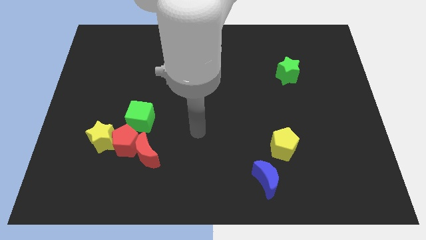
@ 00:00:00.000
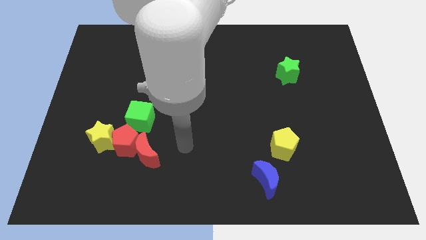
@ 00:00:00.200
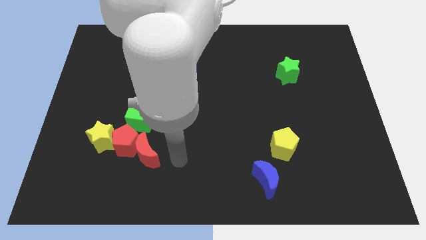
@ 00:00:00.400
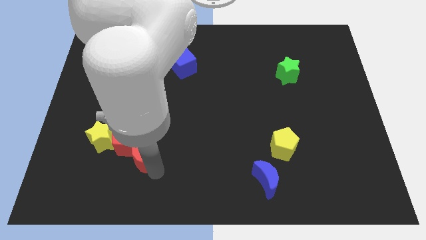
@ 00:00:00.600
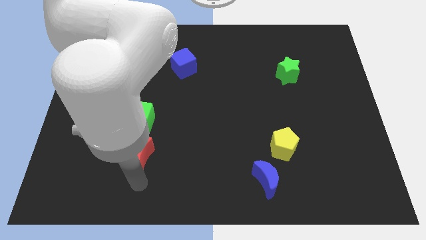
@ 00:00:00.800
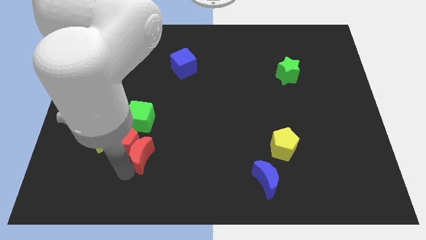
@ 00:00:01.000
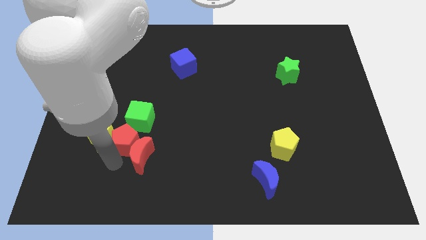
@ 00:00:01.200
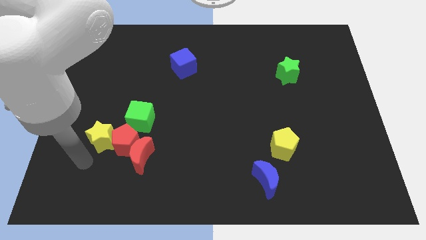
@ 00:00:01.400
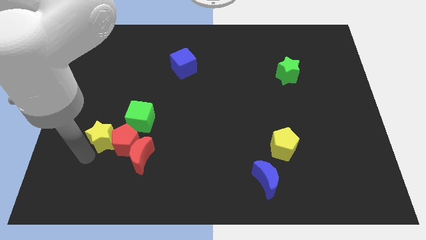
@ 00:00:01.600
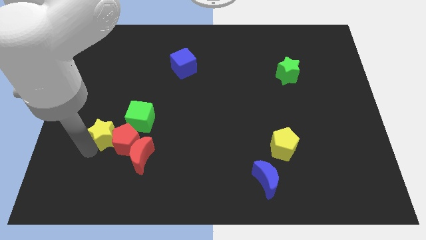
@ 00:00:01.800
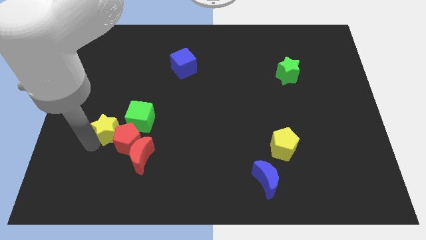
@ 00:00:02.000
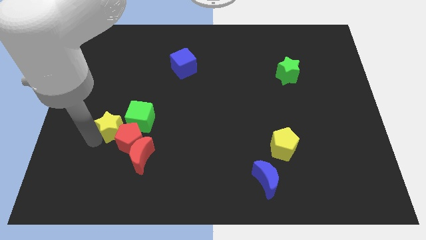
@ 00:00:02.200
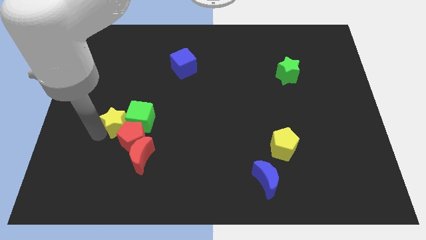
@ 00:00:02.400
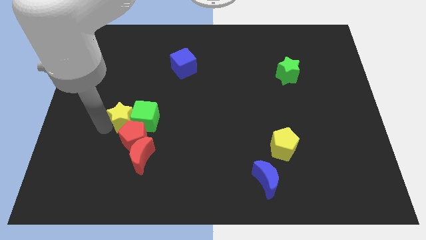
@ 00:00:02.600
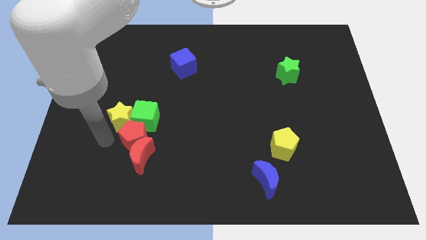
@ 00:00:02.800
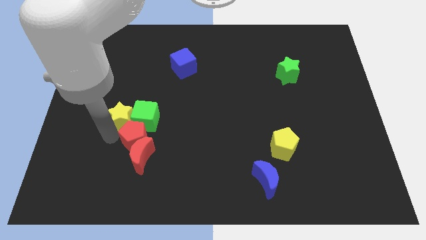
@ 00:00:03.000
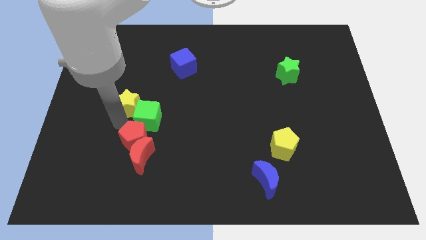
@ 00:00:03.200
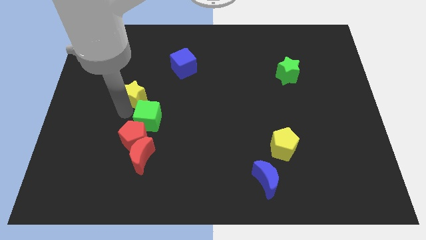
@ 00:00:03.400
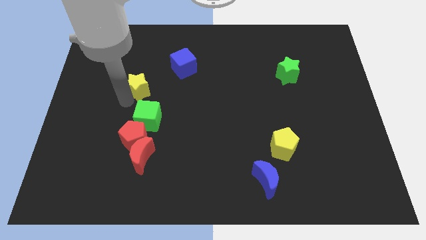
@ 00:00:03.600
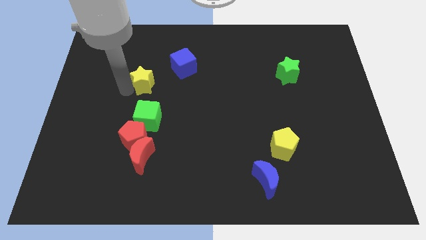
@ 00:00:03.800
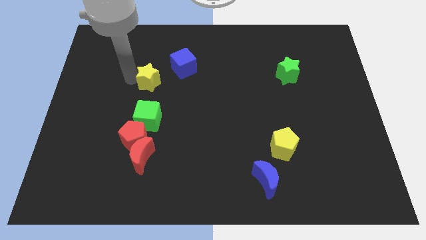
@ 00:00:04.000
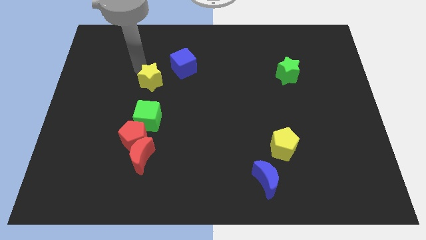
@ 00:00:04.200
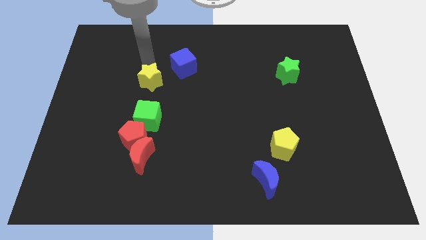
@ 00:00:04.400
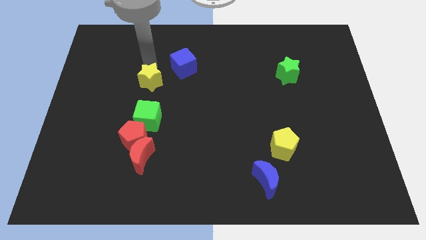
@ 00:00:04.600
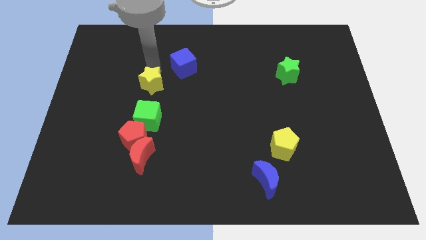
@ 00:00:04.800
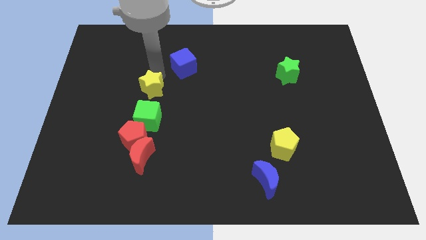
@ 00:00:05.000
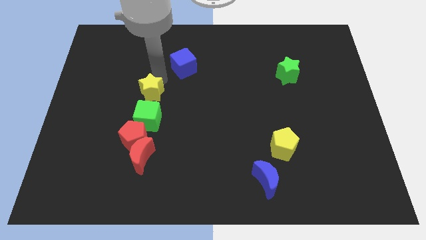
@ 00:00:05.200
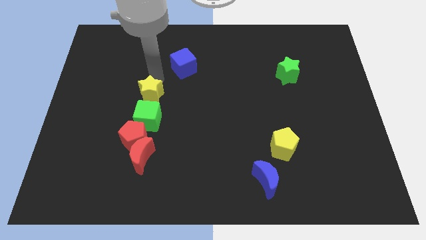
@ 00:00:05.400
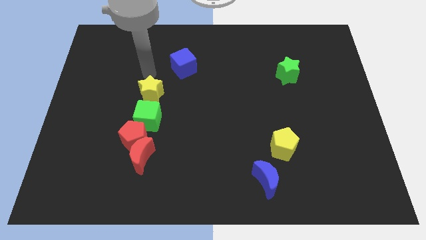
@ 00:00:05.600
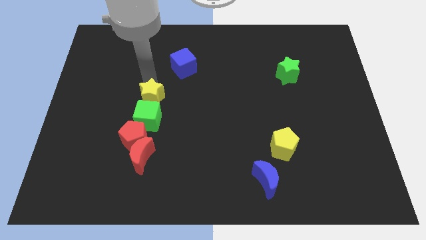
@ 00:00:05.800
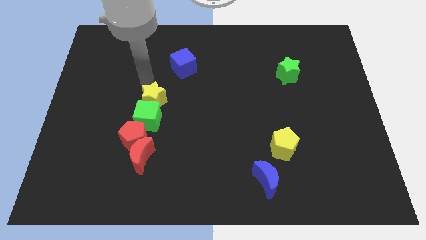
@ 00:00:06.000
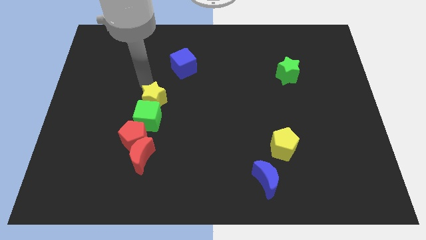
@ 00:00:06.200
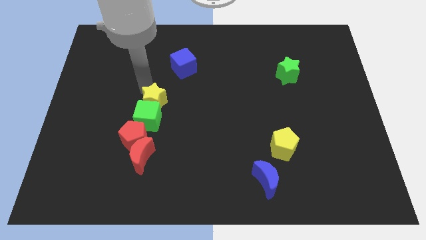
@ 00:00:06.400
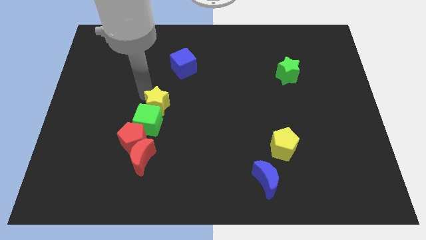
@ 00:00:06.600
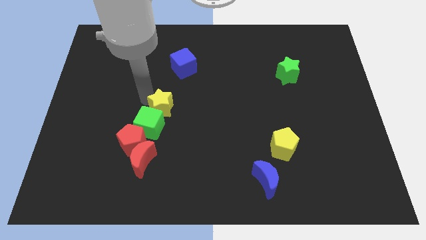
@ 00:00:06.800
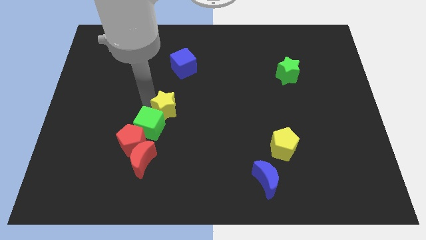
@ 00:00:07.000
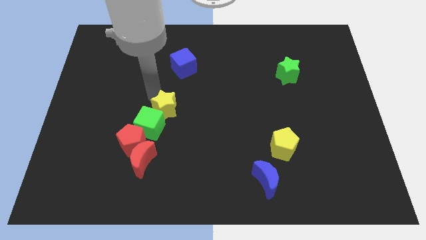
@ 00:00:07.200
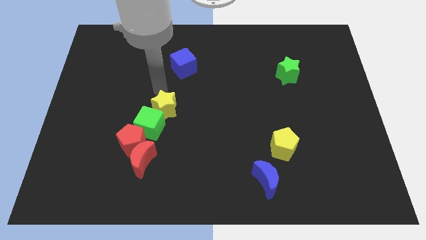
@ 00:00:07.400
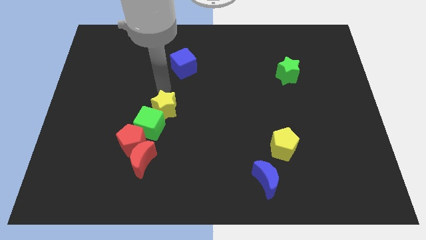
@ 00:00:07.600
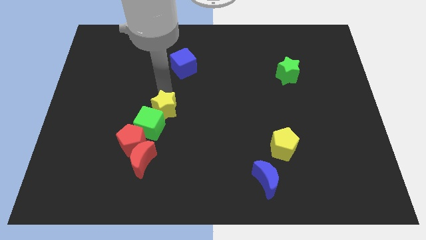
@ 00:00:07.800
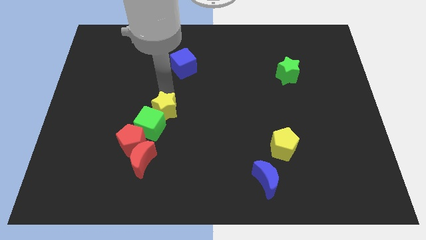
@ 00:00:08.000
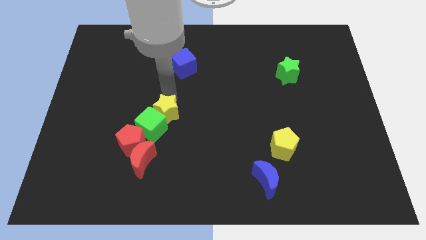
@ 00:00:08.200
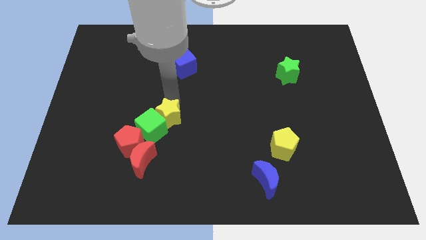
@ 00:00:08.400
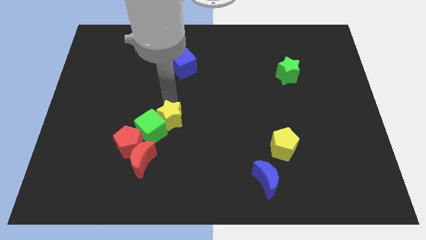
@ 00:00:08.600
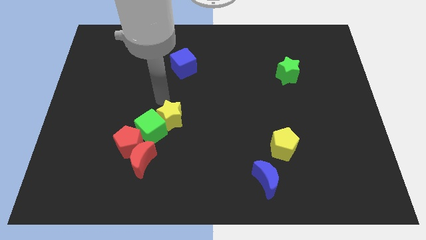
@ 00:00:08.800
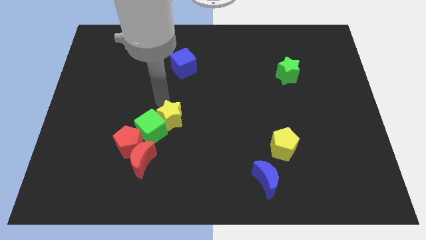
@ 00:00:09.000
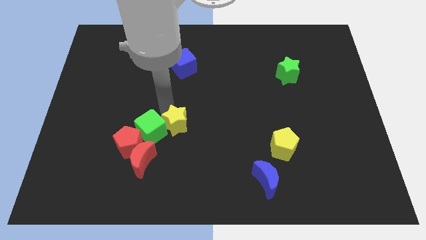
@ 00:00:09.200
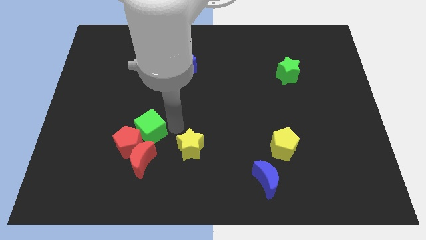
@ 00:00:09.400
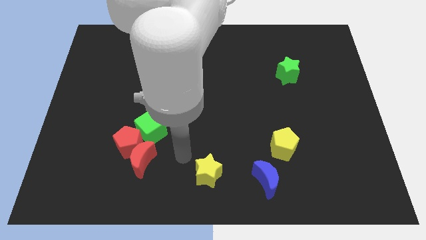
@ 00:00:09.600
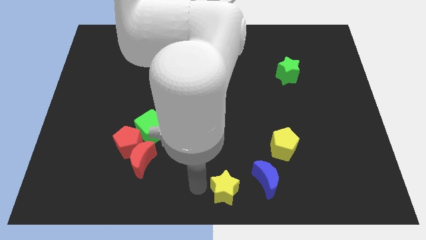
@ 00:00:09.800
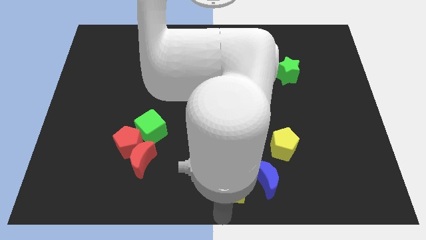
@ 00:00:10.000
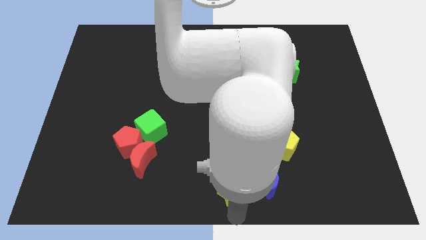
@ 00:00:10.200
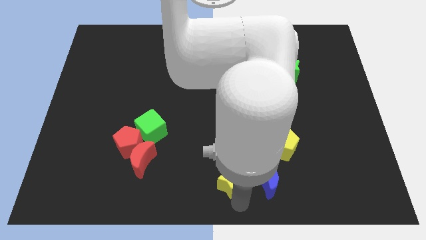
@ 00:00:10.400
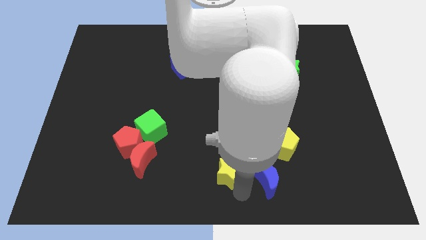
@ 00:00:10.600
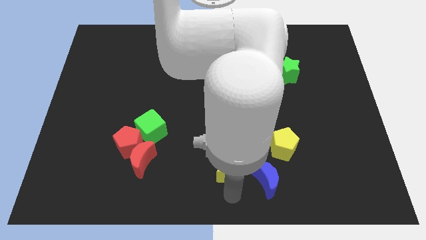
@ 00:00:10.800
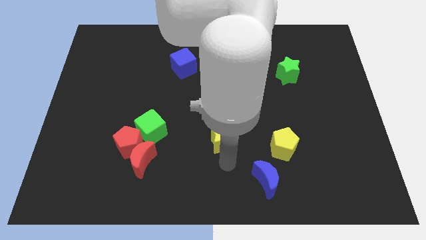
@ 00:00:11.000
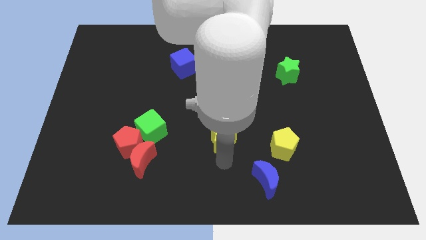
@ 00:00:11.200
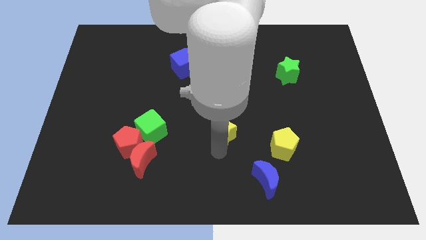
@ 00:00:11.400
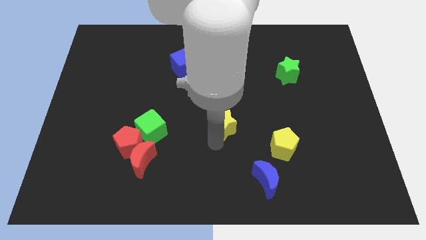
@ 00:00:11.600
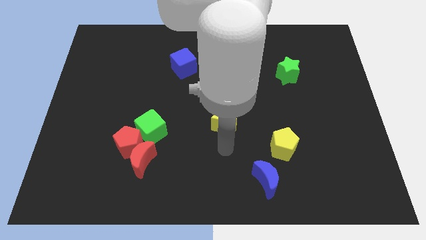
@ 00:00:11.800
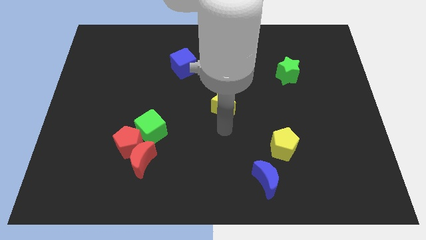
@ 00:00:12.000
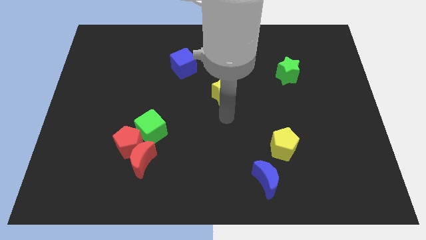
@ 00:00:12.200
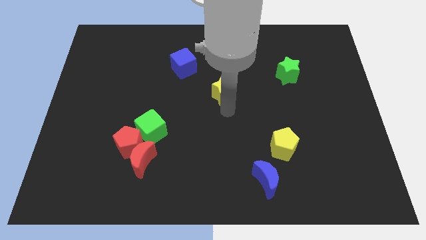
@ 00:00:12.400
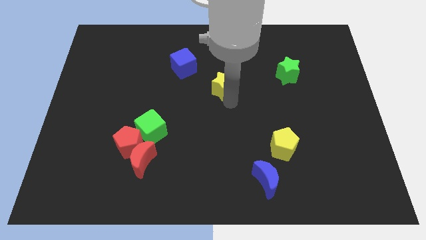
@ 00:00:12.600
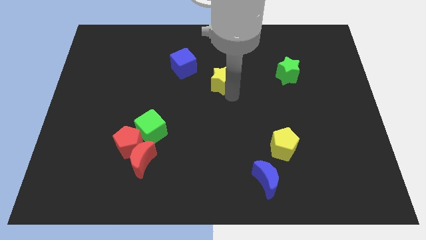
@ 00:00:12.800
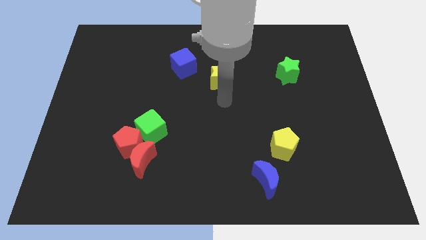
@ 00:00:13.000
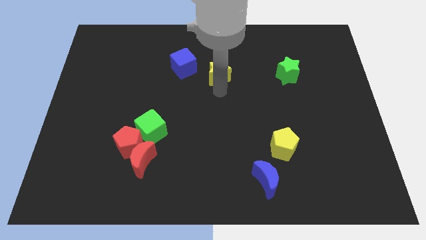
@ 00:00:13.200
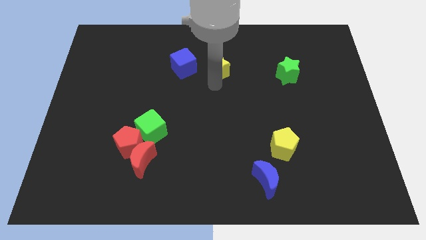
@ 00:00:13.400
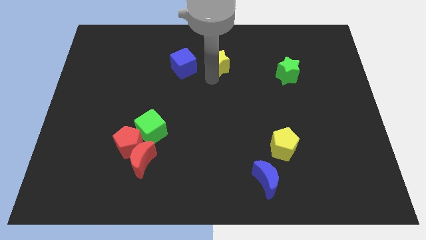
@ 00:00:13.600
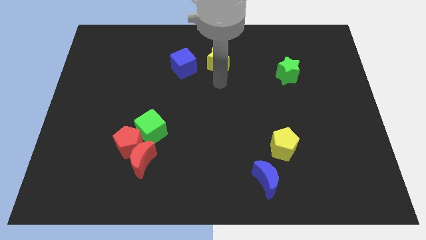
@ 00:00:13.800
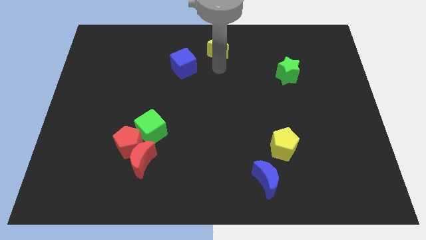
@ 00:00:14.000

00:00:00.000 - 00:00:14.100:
move the yellow star to the top side
